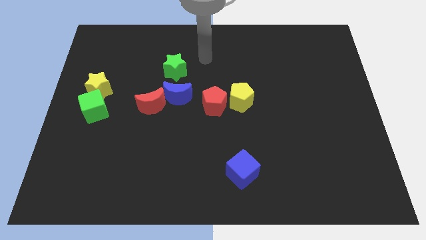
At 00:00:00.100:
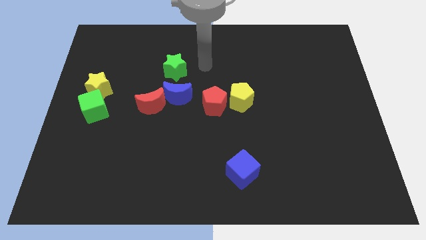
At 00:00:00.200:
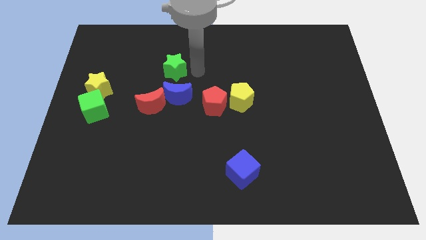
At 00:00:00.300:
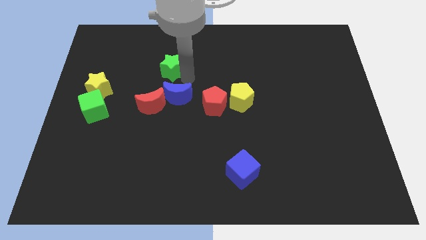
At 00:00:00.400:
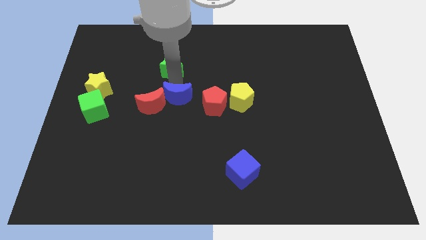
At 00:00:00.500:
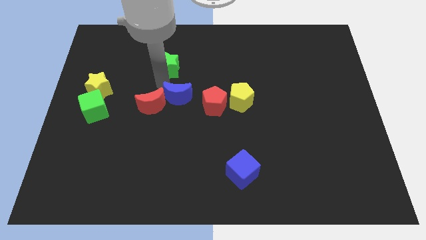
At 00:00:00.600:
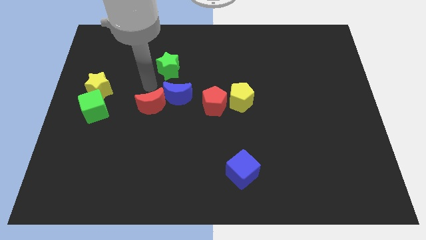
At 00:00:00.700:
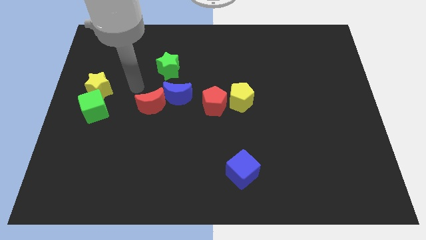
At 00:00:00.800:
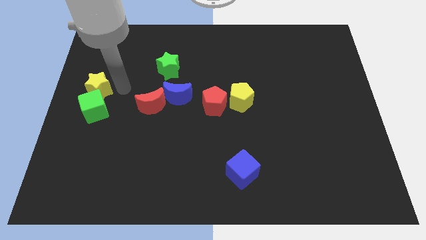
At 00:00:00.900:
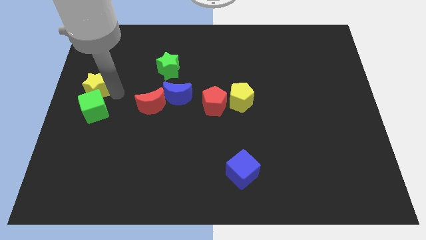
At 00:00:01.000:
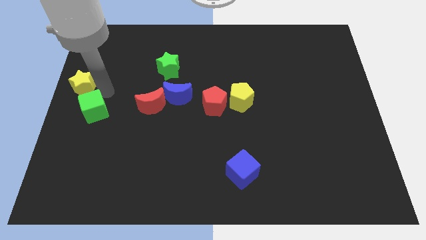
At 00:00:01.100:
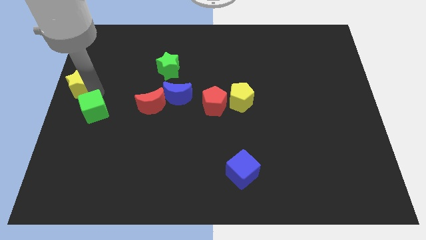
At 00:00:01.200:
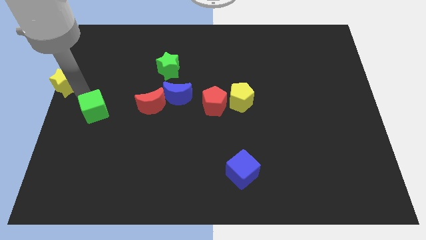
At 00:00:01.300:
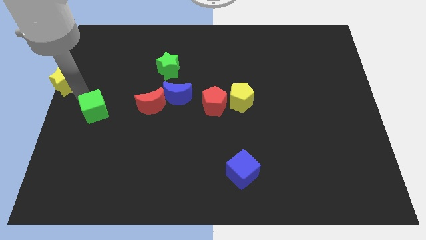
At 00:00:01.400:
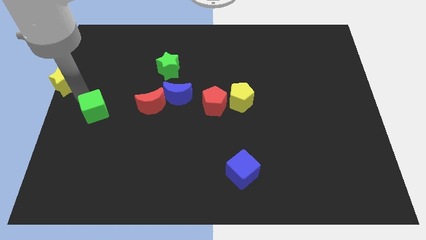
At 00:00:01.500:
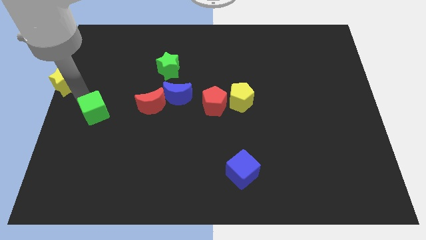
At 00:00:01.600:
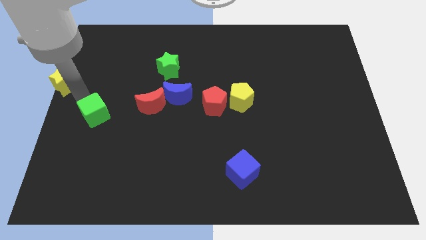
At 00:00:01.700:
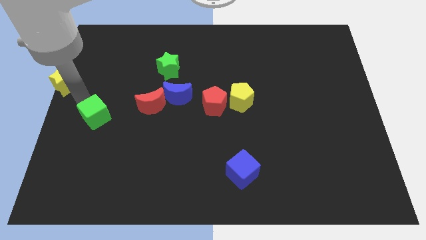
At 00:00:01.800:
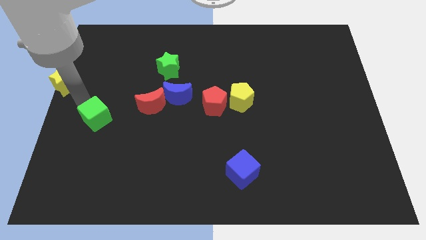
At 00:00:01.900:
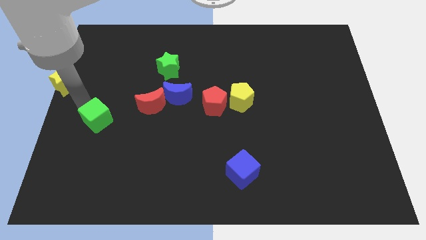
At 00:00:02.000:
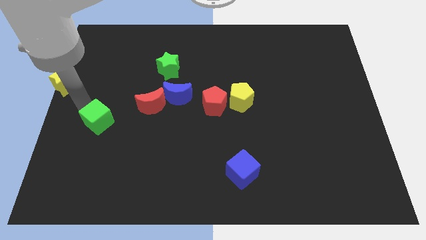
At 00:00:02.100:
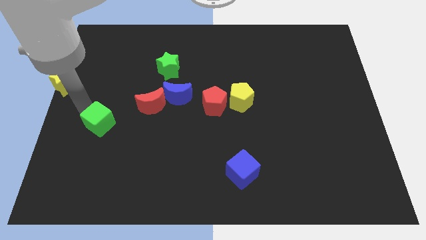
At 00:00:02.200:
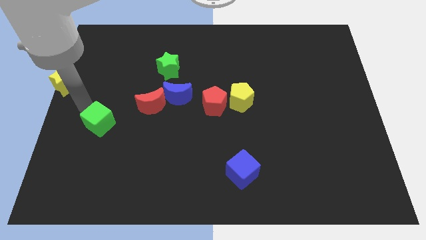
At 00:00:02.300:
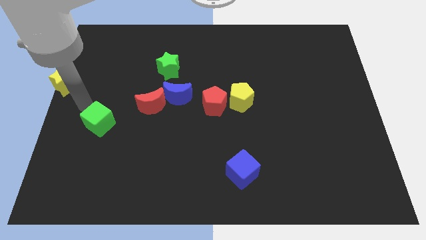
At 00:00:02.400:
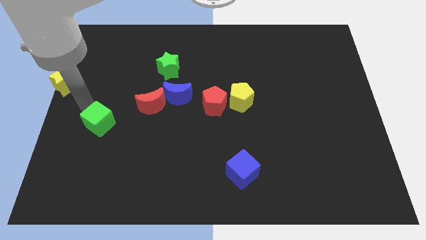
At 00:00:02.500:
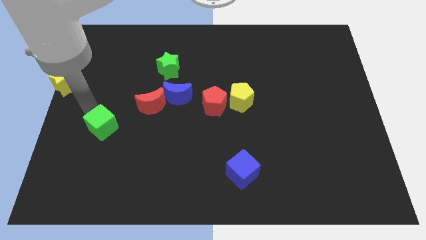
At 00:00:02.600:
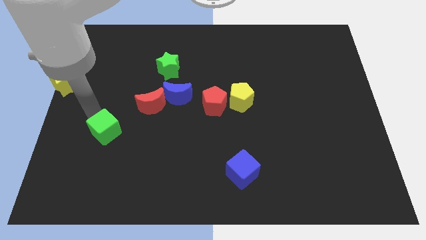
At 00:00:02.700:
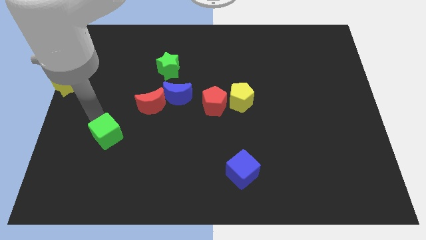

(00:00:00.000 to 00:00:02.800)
slightly move the green cube down and to the right diagonally

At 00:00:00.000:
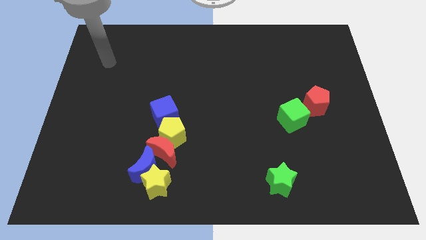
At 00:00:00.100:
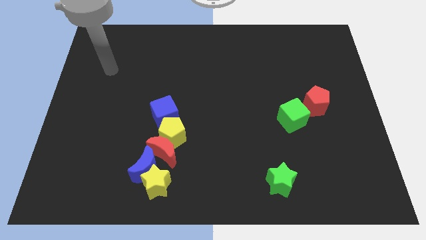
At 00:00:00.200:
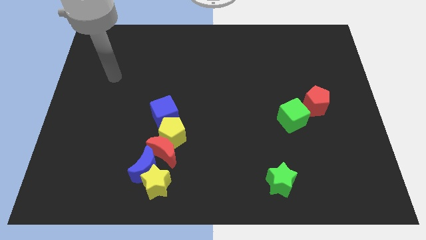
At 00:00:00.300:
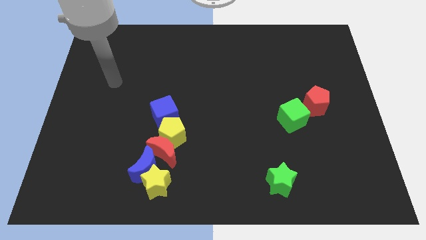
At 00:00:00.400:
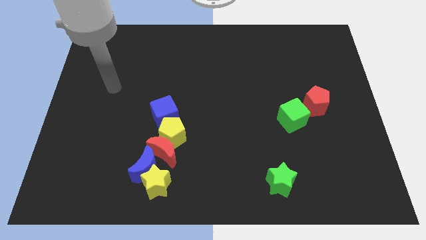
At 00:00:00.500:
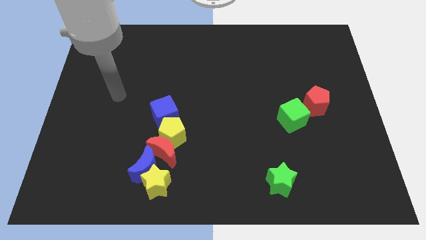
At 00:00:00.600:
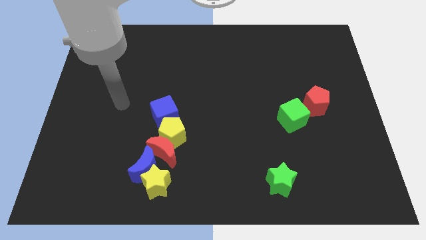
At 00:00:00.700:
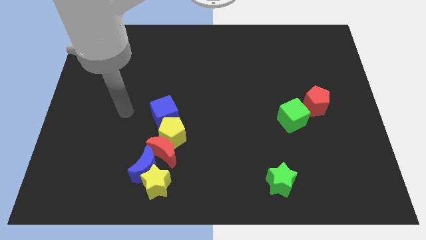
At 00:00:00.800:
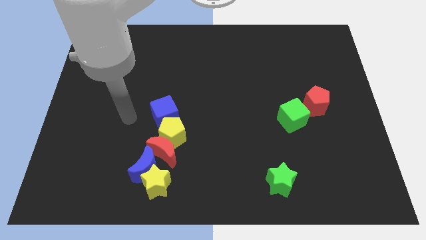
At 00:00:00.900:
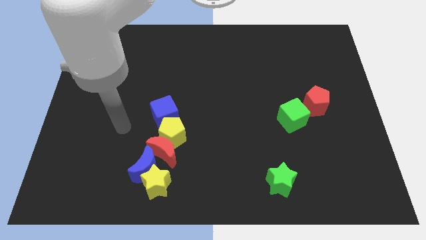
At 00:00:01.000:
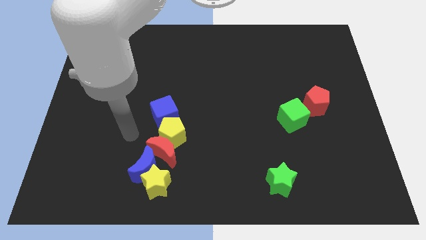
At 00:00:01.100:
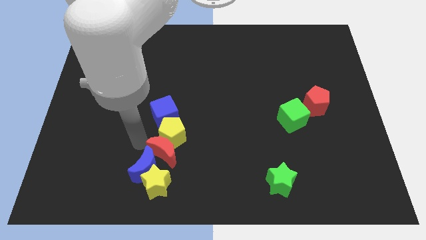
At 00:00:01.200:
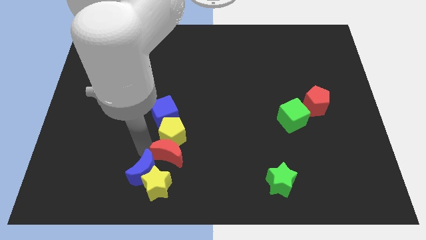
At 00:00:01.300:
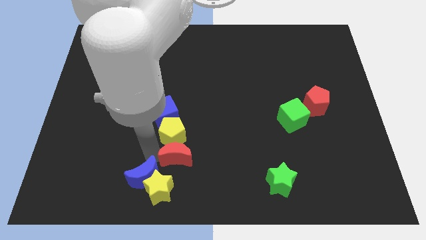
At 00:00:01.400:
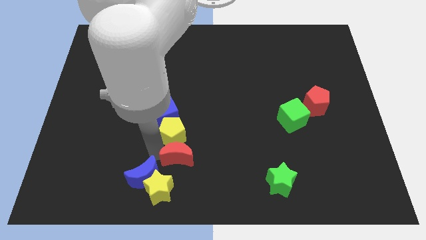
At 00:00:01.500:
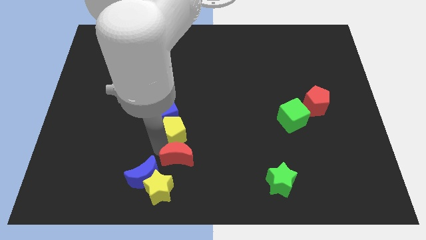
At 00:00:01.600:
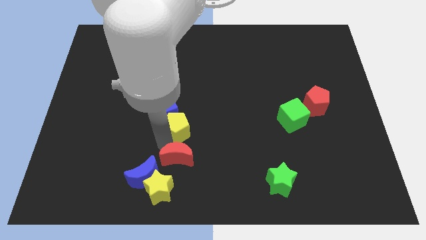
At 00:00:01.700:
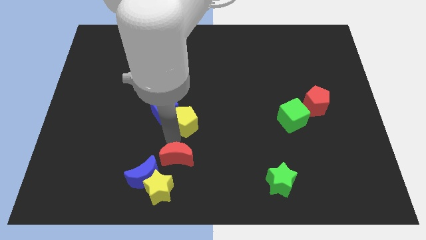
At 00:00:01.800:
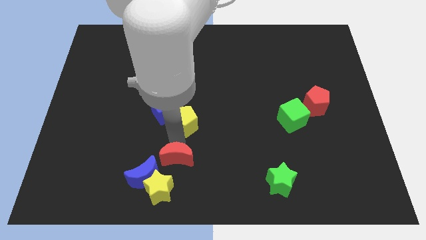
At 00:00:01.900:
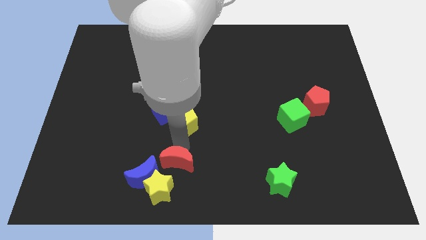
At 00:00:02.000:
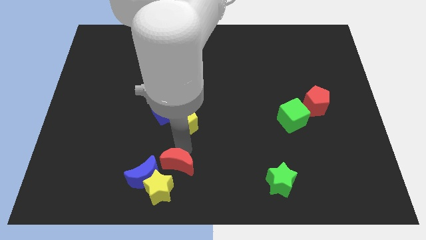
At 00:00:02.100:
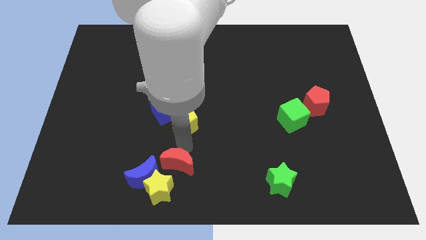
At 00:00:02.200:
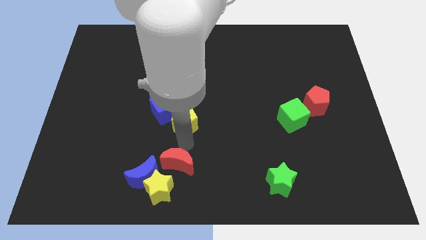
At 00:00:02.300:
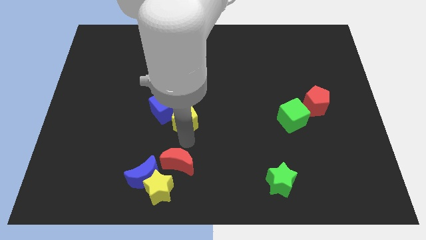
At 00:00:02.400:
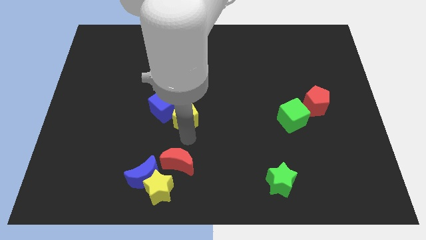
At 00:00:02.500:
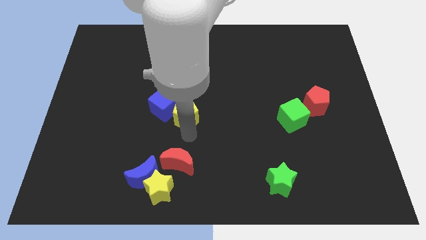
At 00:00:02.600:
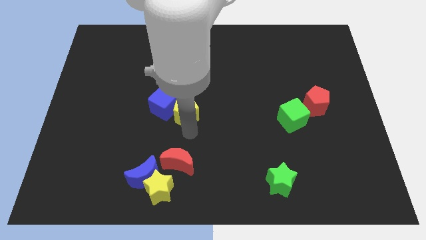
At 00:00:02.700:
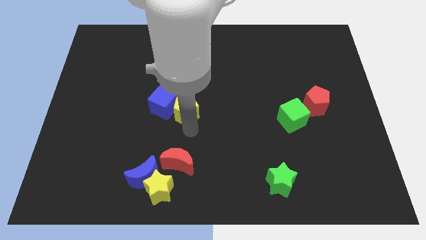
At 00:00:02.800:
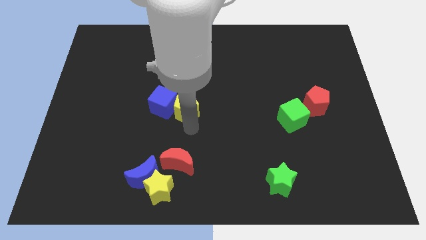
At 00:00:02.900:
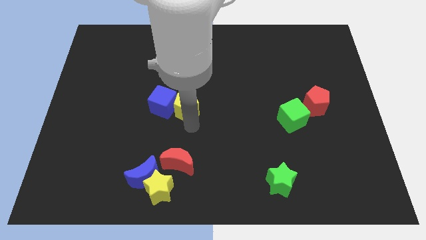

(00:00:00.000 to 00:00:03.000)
slightly push the yellow pentagon upwards

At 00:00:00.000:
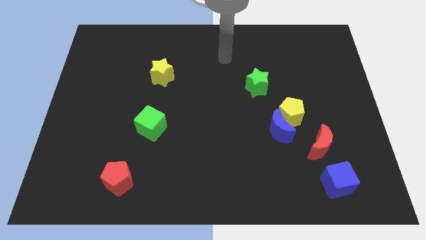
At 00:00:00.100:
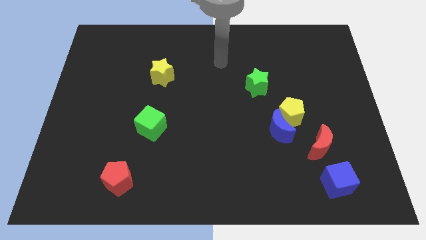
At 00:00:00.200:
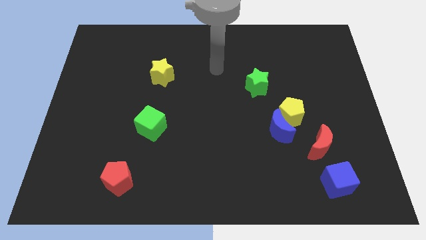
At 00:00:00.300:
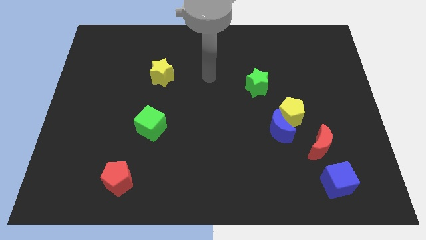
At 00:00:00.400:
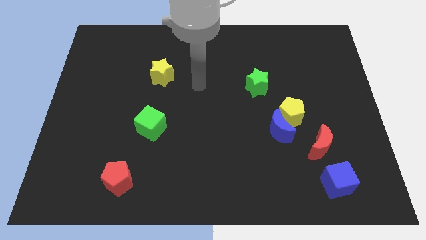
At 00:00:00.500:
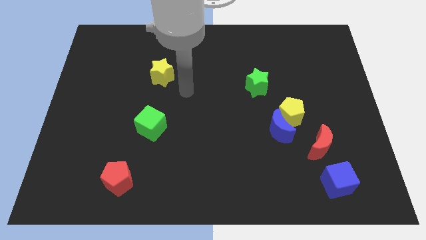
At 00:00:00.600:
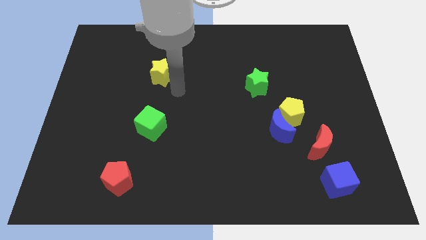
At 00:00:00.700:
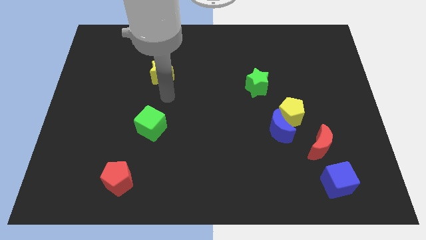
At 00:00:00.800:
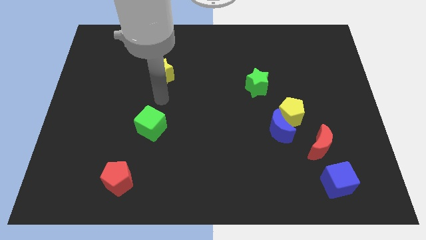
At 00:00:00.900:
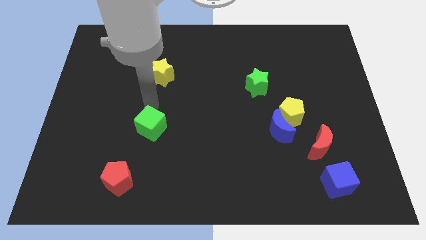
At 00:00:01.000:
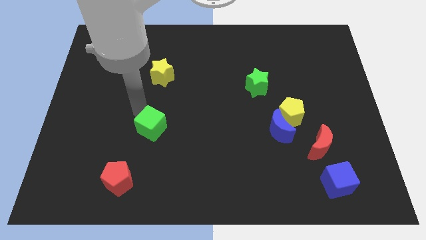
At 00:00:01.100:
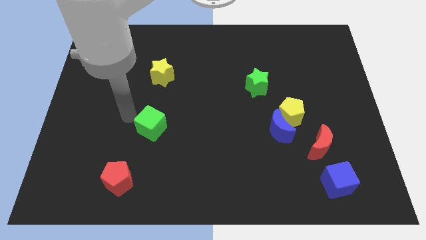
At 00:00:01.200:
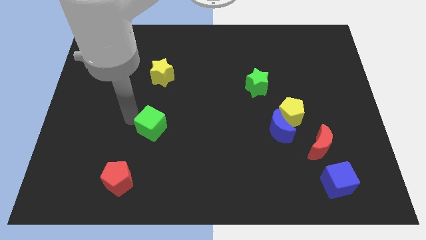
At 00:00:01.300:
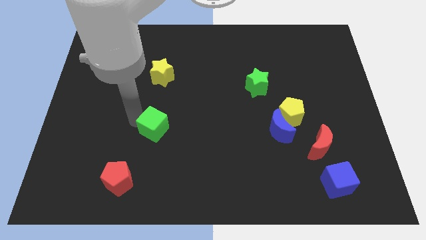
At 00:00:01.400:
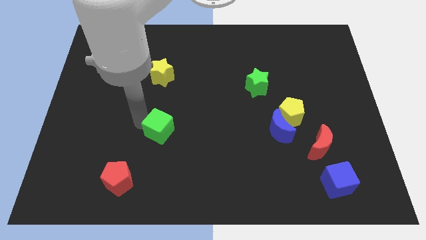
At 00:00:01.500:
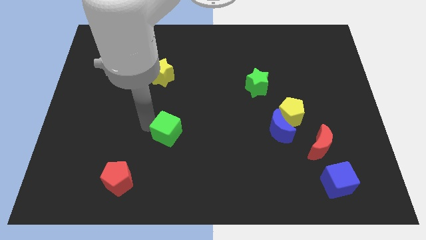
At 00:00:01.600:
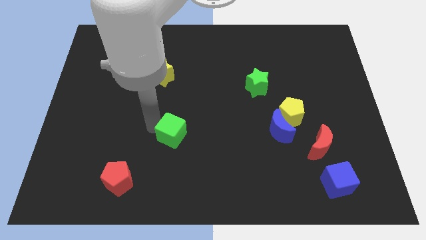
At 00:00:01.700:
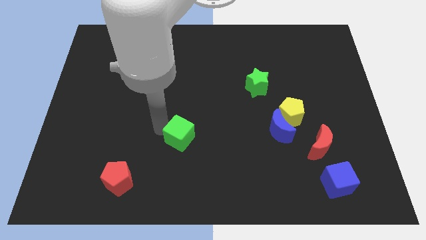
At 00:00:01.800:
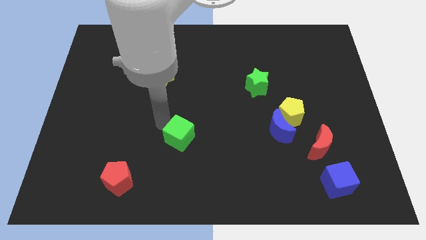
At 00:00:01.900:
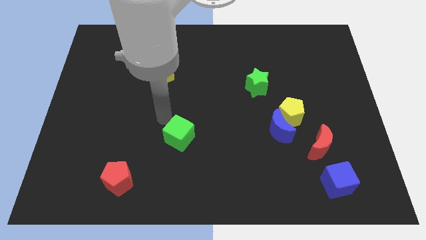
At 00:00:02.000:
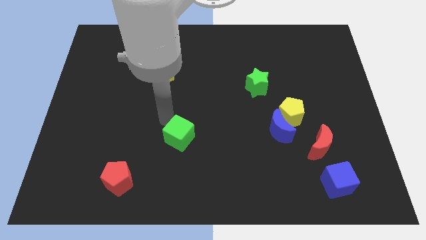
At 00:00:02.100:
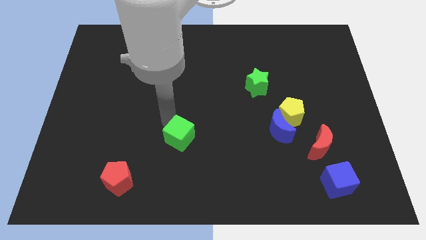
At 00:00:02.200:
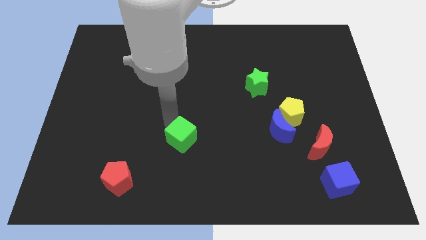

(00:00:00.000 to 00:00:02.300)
move the green cube diagonally downwards and to the right a little bit
